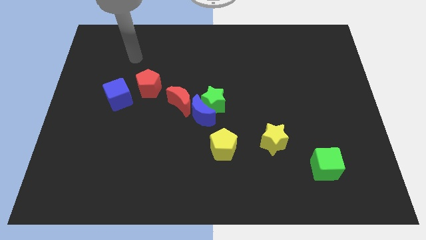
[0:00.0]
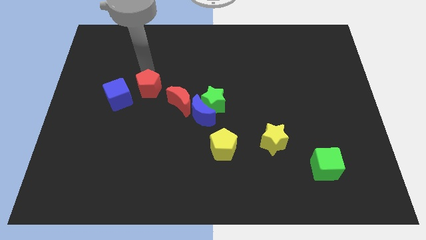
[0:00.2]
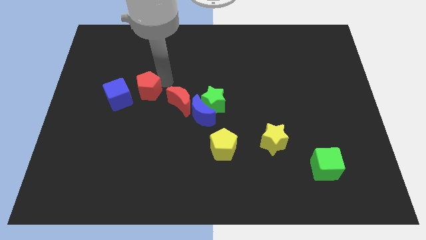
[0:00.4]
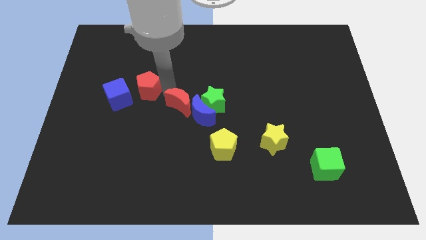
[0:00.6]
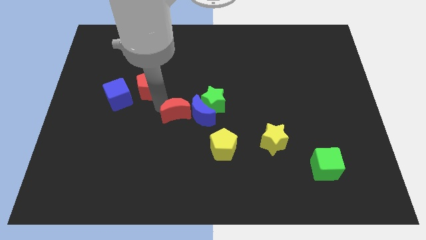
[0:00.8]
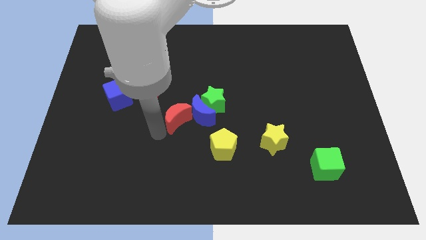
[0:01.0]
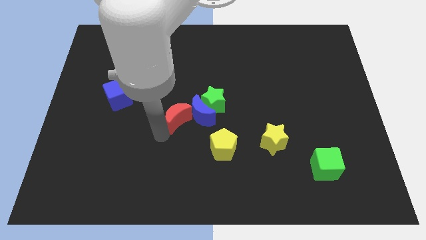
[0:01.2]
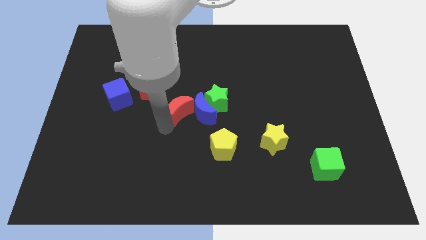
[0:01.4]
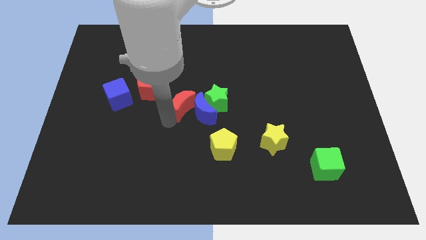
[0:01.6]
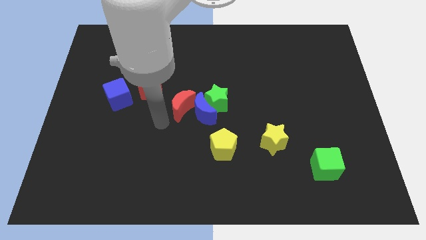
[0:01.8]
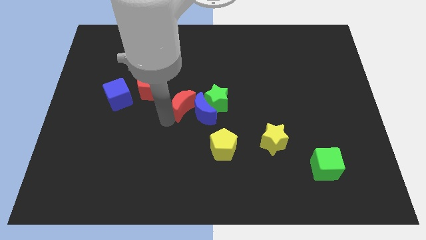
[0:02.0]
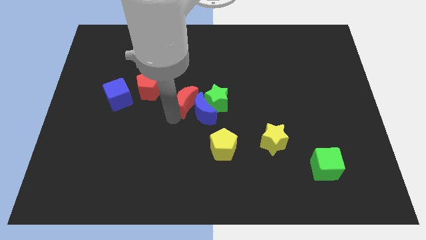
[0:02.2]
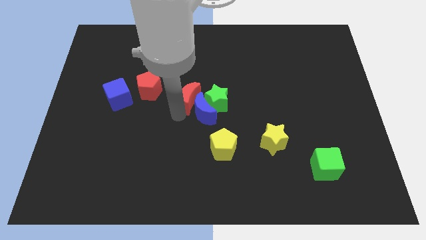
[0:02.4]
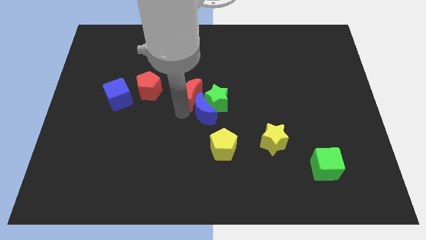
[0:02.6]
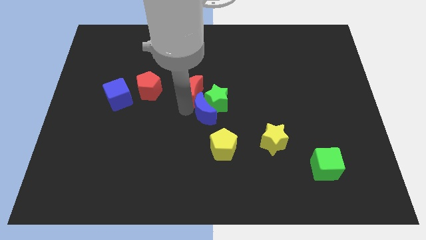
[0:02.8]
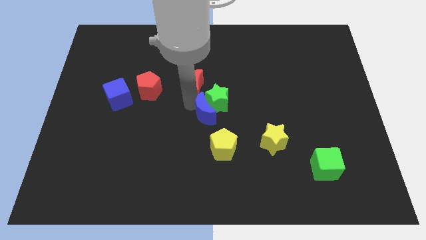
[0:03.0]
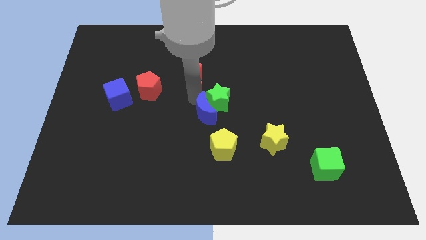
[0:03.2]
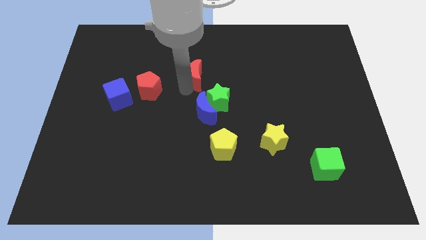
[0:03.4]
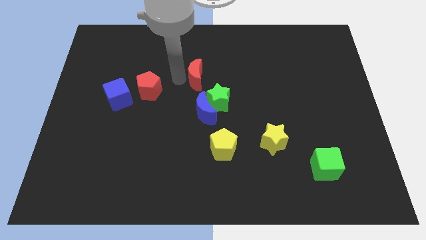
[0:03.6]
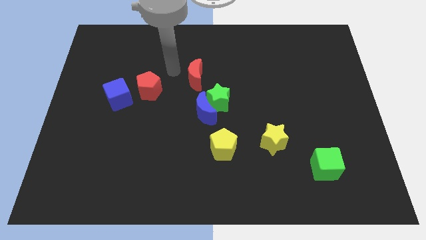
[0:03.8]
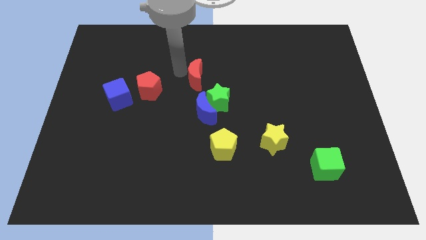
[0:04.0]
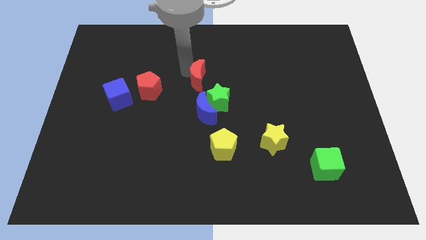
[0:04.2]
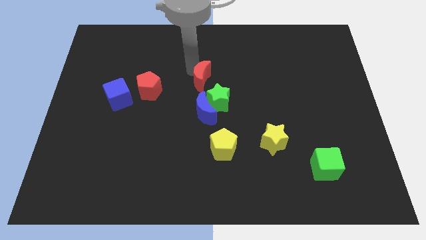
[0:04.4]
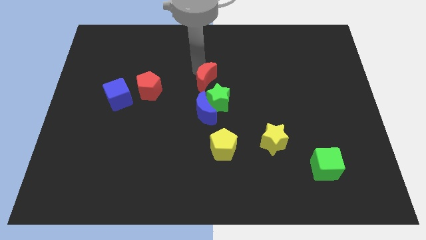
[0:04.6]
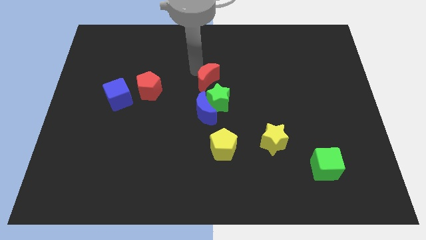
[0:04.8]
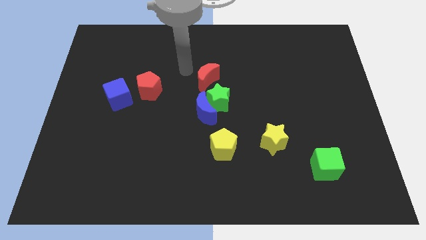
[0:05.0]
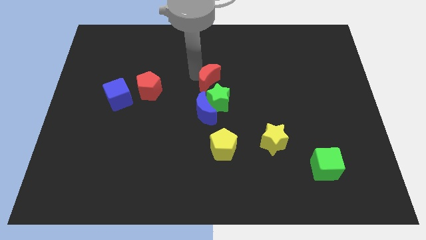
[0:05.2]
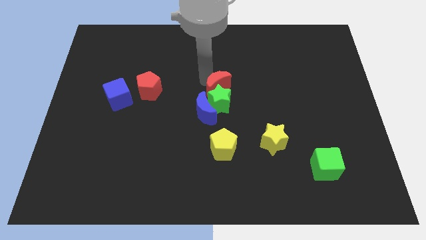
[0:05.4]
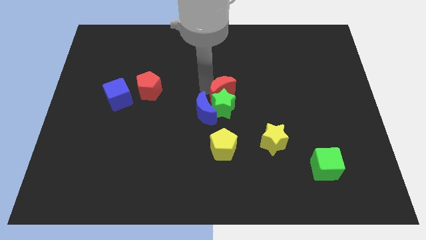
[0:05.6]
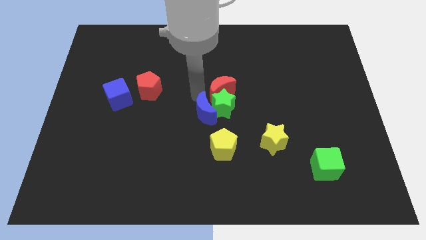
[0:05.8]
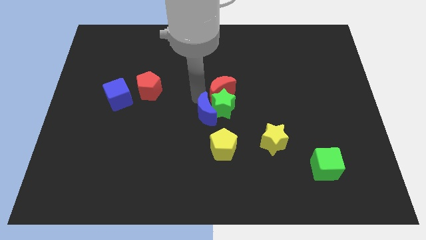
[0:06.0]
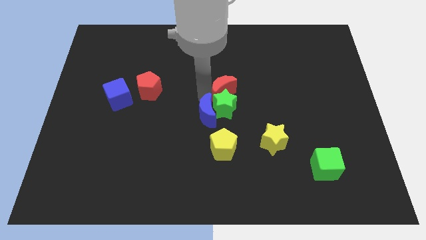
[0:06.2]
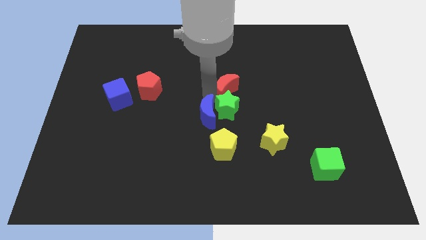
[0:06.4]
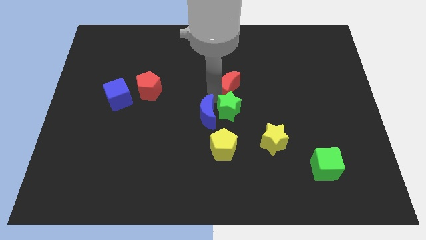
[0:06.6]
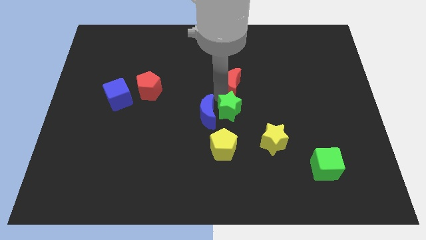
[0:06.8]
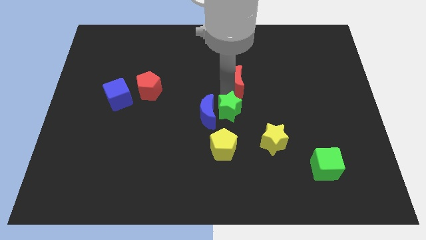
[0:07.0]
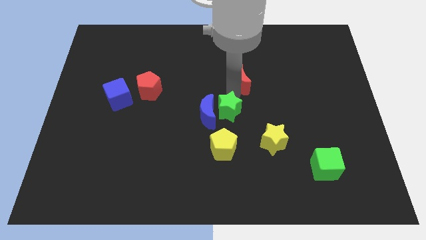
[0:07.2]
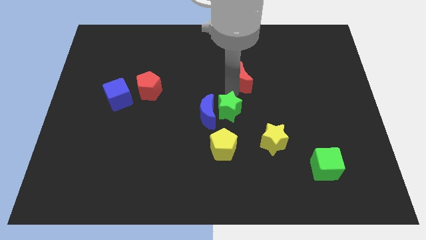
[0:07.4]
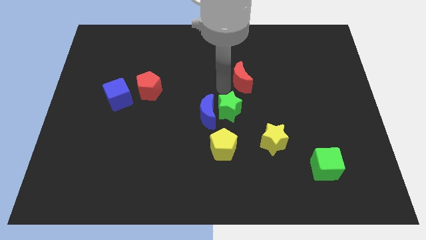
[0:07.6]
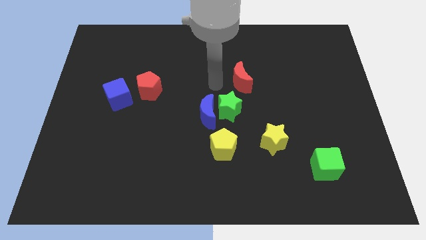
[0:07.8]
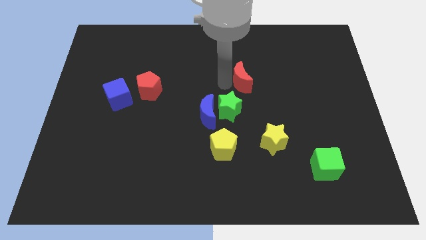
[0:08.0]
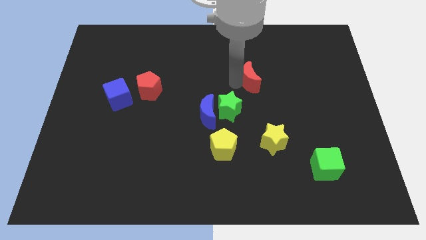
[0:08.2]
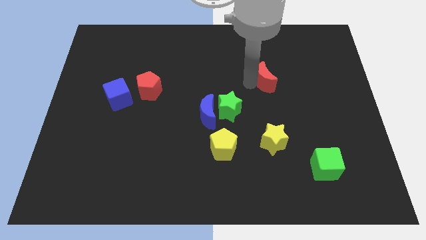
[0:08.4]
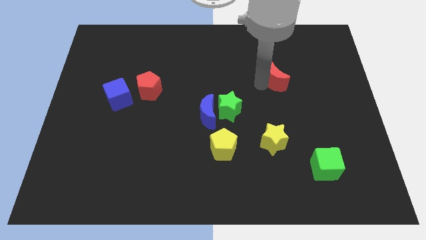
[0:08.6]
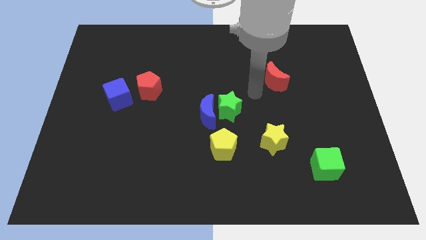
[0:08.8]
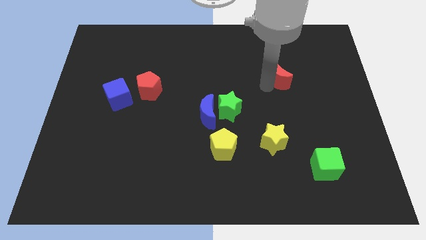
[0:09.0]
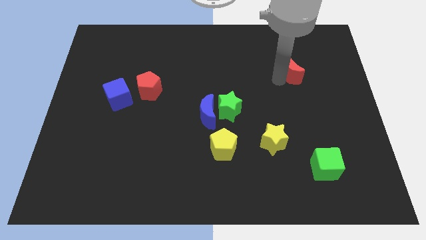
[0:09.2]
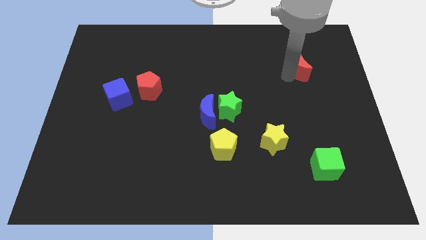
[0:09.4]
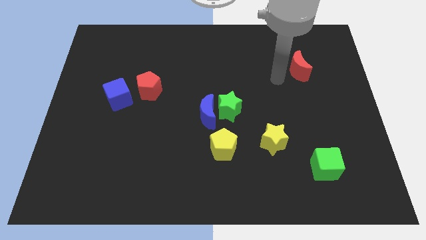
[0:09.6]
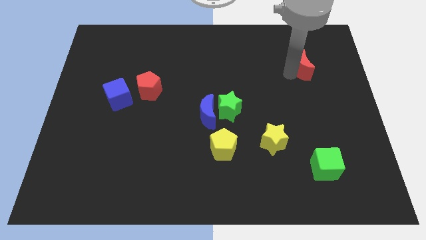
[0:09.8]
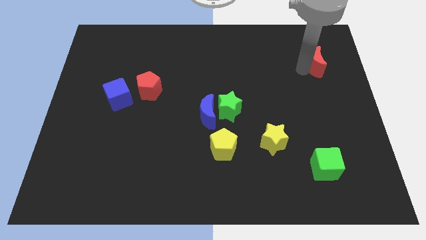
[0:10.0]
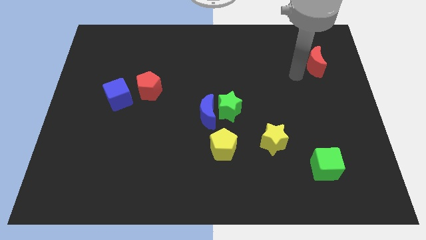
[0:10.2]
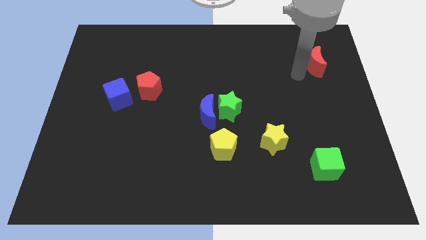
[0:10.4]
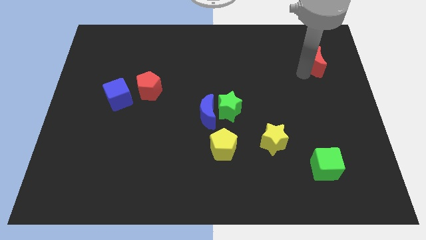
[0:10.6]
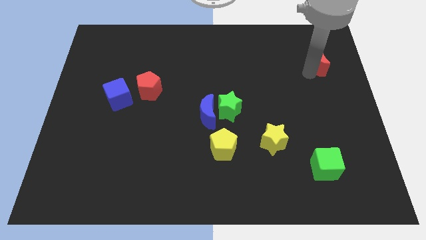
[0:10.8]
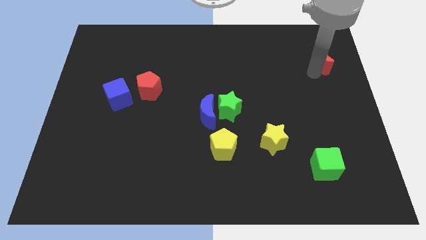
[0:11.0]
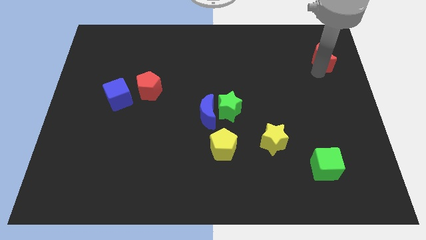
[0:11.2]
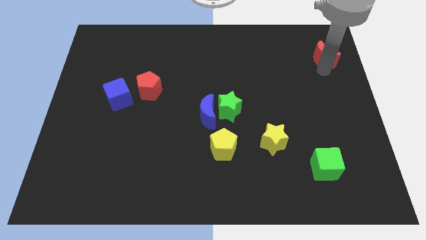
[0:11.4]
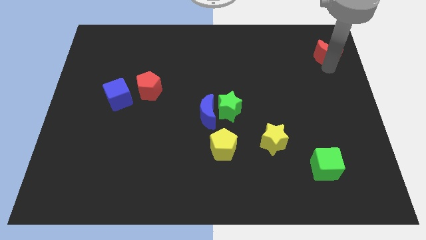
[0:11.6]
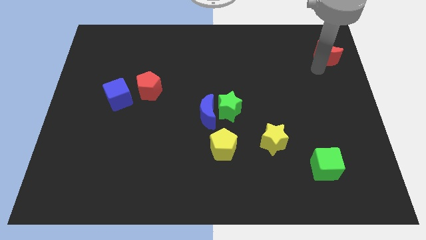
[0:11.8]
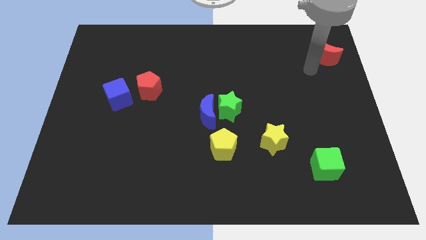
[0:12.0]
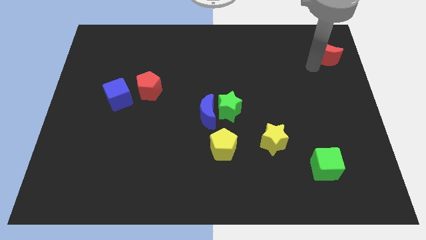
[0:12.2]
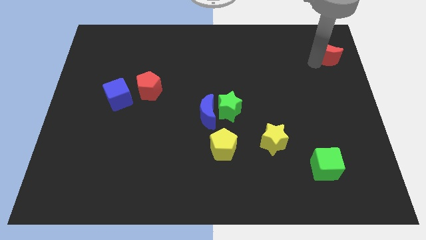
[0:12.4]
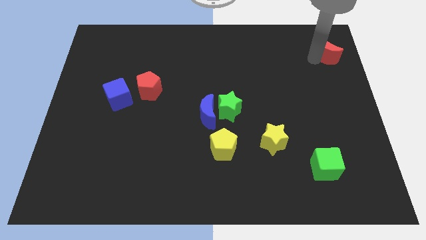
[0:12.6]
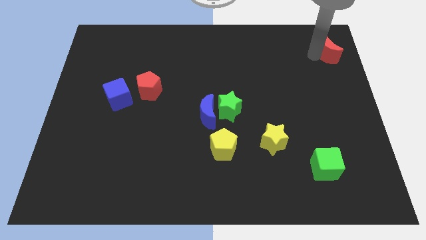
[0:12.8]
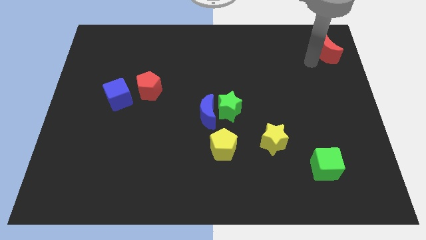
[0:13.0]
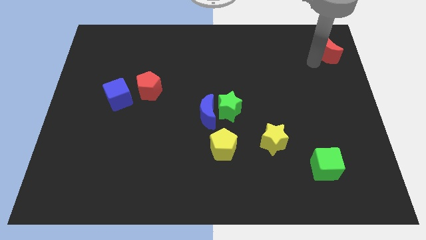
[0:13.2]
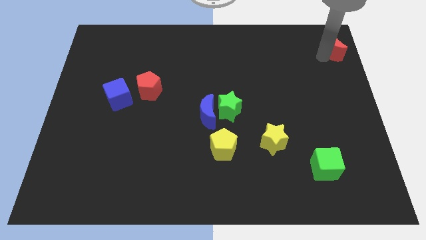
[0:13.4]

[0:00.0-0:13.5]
slide the red moon to the top right of the board
